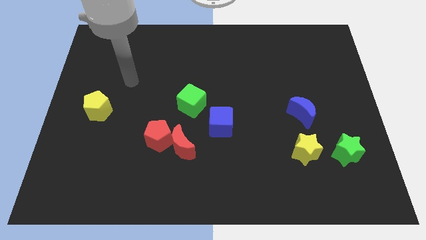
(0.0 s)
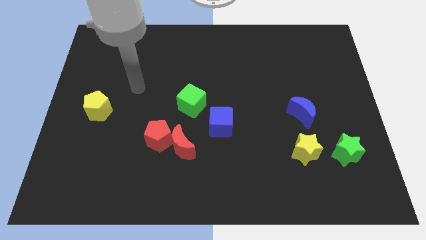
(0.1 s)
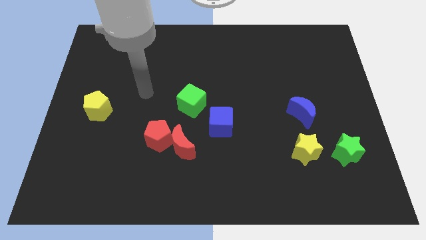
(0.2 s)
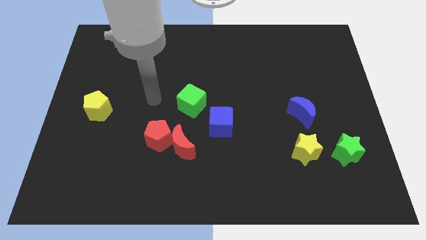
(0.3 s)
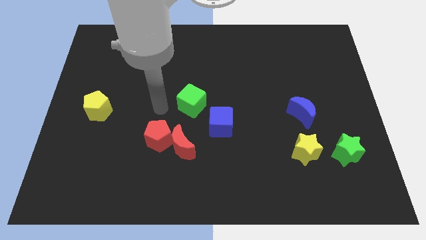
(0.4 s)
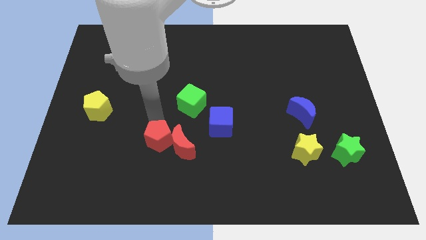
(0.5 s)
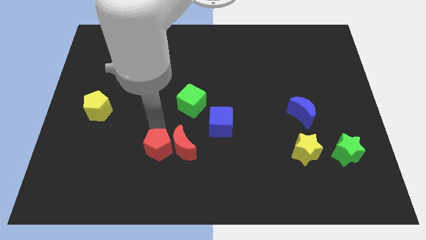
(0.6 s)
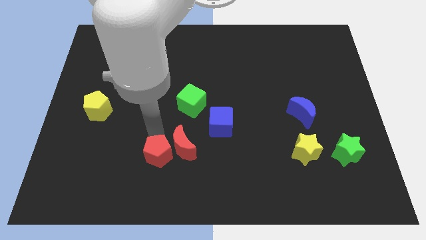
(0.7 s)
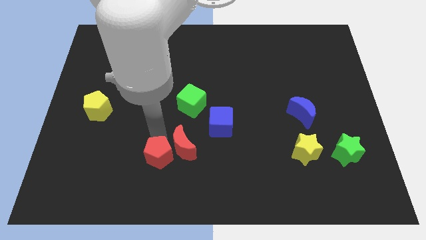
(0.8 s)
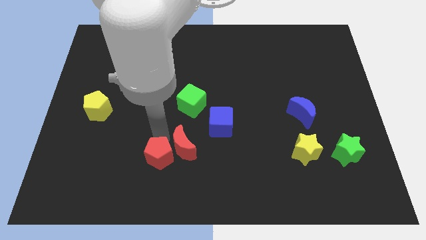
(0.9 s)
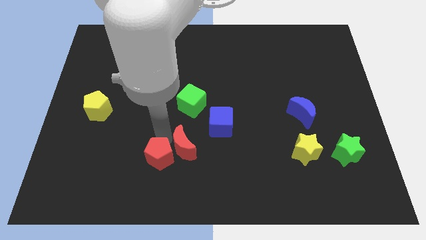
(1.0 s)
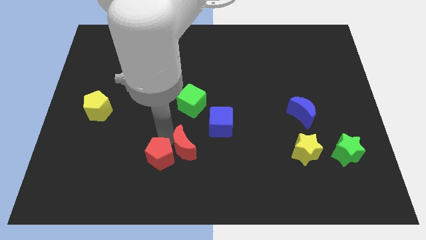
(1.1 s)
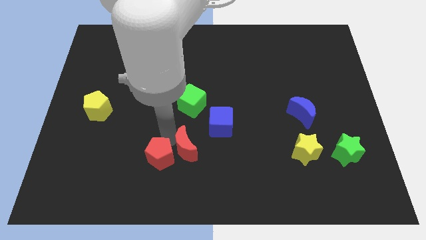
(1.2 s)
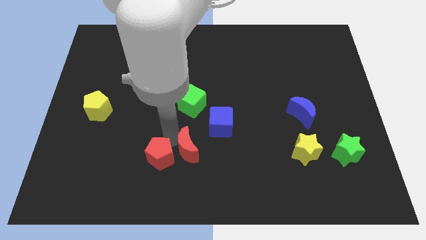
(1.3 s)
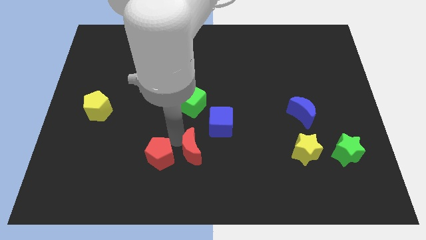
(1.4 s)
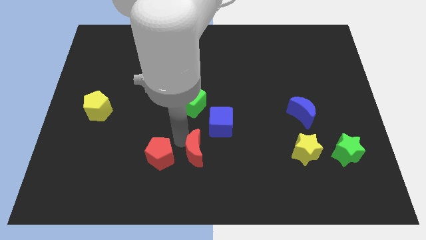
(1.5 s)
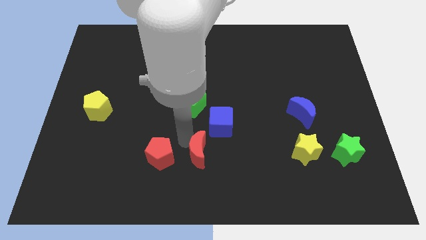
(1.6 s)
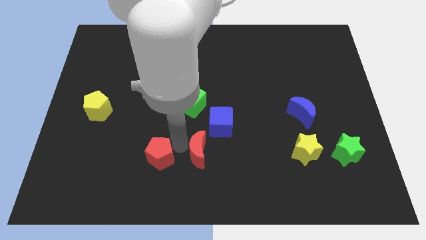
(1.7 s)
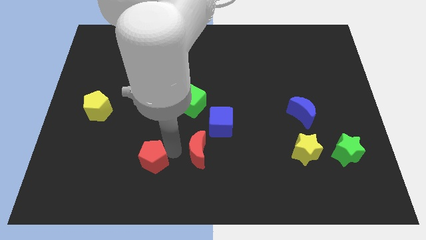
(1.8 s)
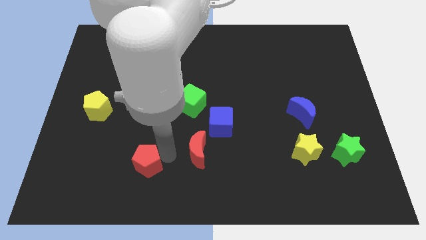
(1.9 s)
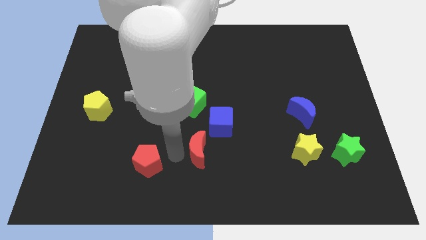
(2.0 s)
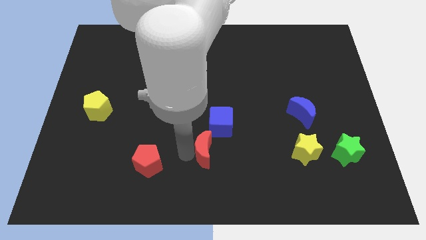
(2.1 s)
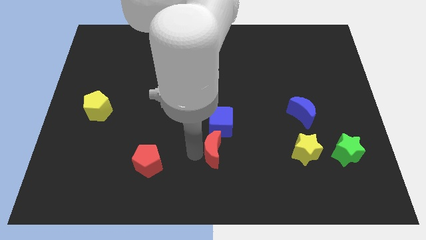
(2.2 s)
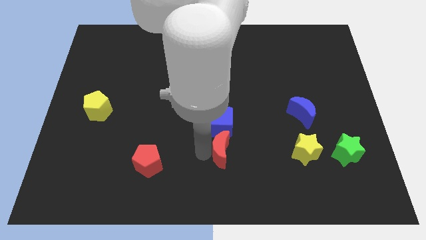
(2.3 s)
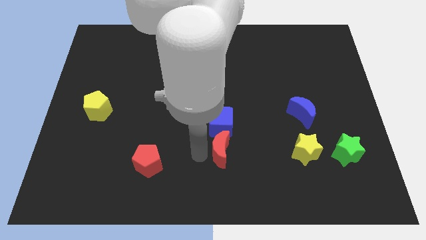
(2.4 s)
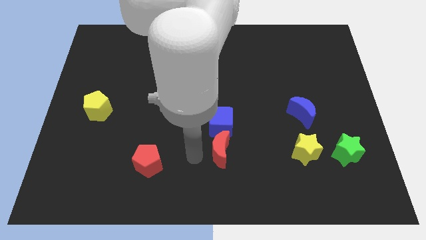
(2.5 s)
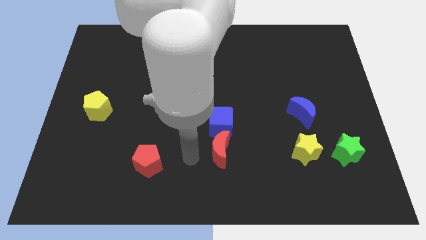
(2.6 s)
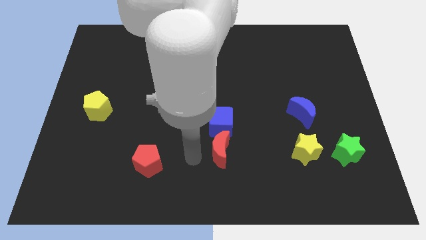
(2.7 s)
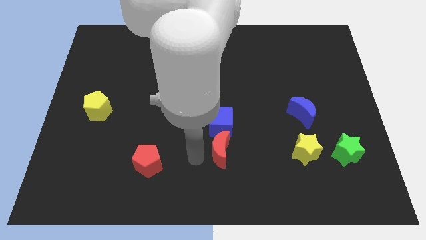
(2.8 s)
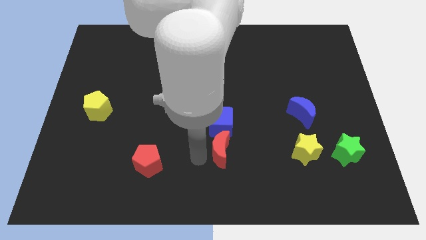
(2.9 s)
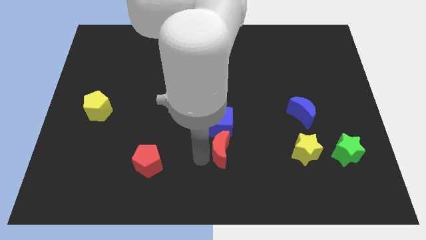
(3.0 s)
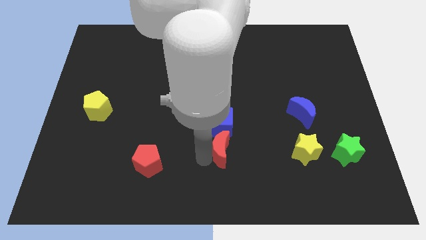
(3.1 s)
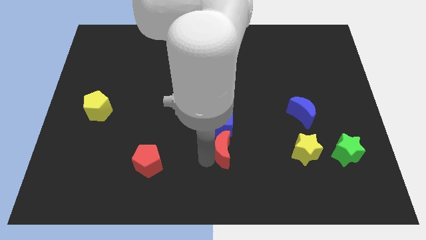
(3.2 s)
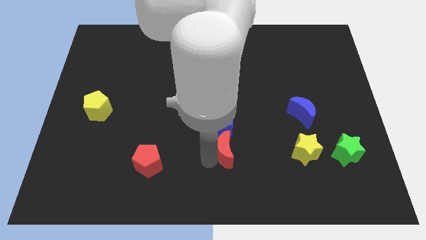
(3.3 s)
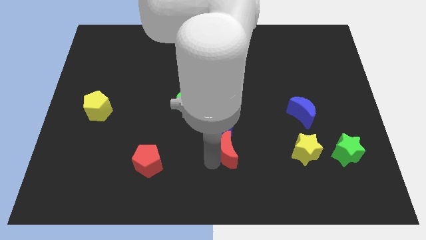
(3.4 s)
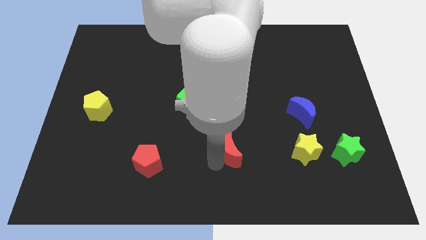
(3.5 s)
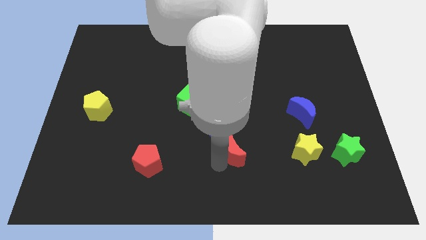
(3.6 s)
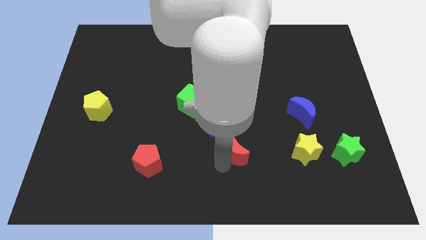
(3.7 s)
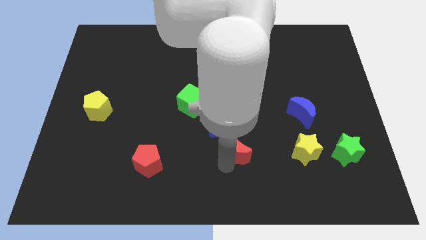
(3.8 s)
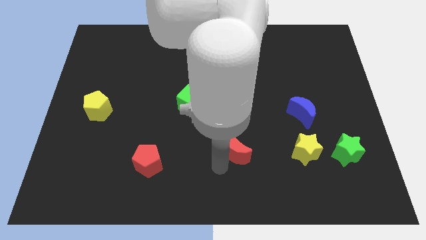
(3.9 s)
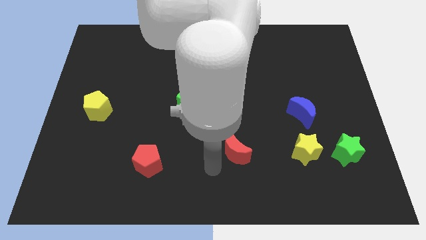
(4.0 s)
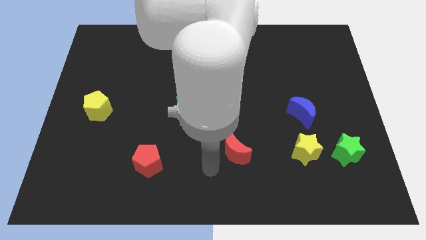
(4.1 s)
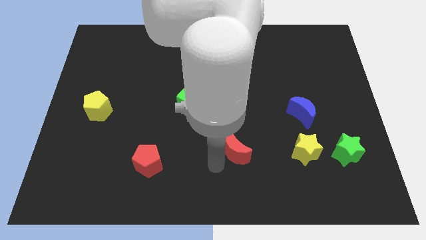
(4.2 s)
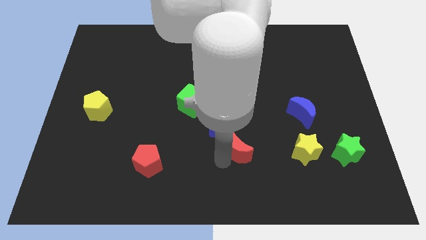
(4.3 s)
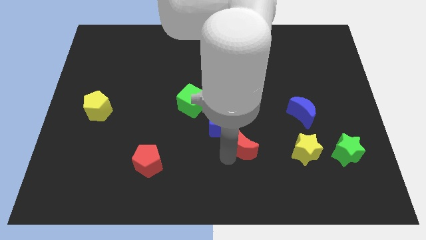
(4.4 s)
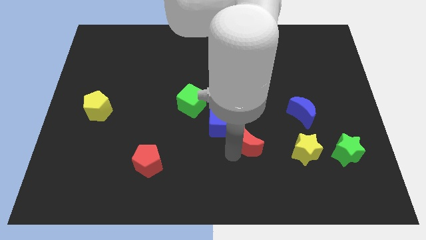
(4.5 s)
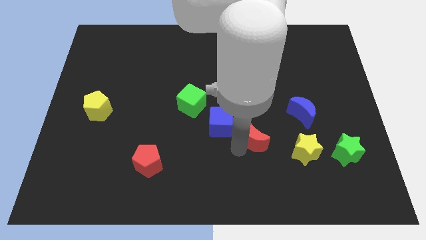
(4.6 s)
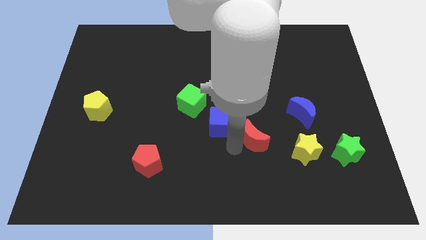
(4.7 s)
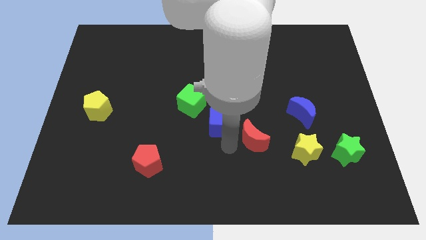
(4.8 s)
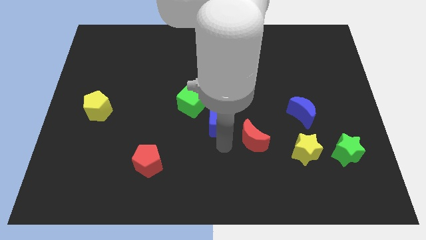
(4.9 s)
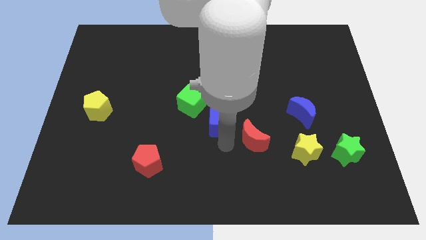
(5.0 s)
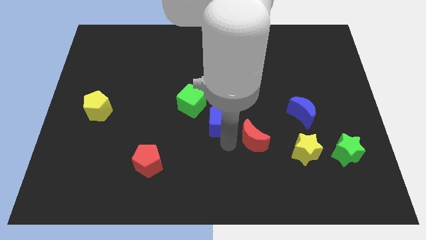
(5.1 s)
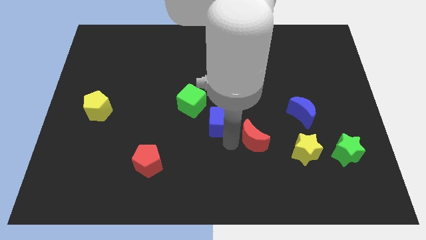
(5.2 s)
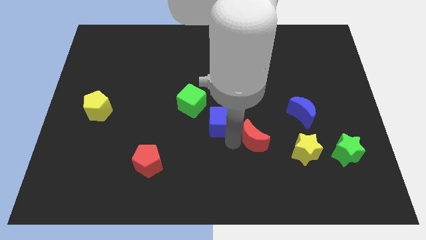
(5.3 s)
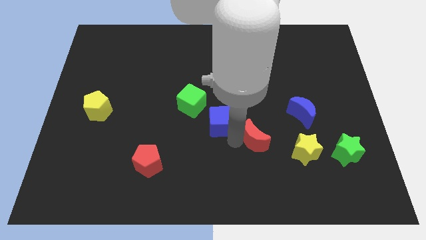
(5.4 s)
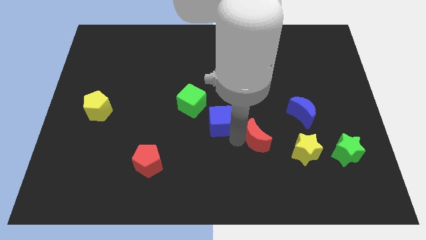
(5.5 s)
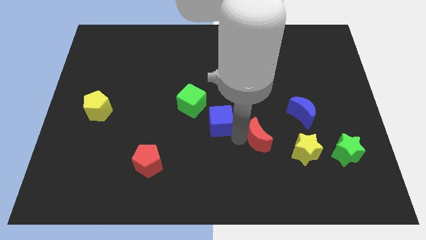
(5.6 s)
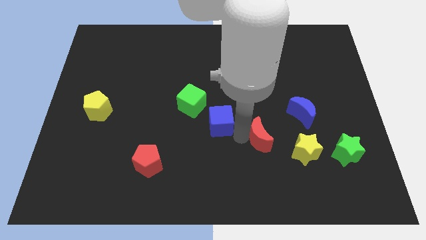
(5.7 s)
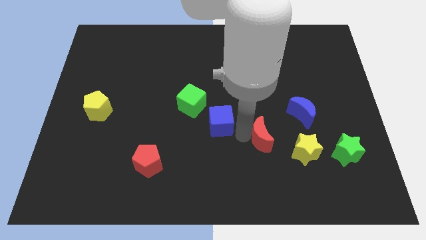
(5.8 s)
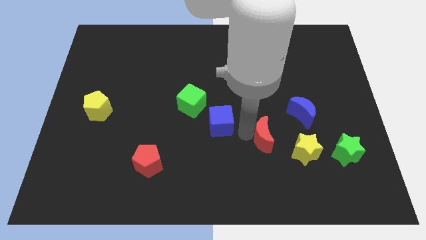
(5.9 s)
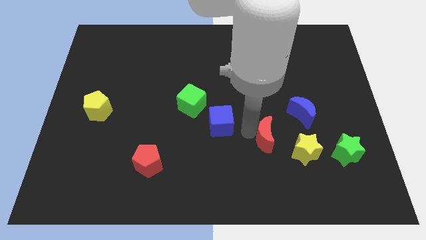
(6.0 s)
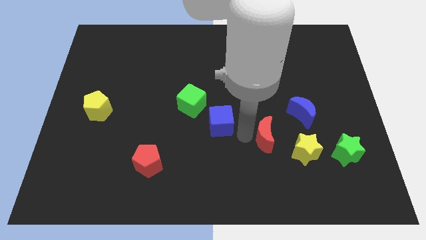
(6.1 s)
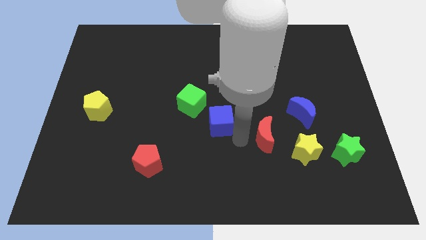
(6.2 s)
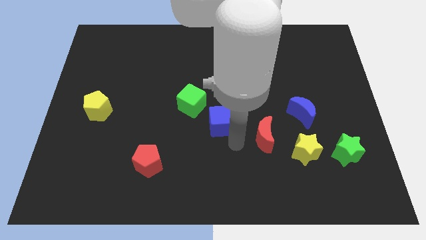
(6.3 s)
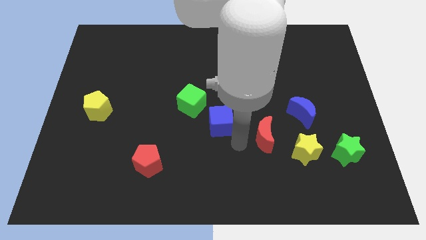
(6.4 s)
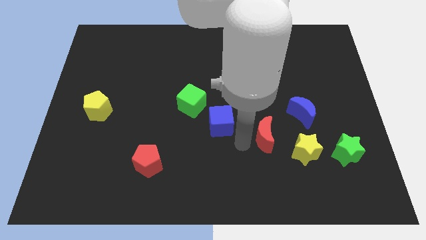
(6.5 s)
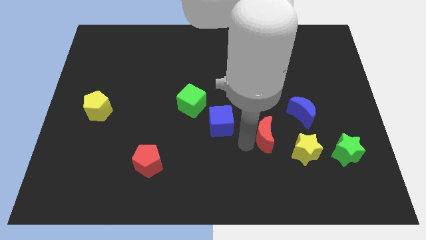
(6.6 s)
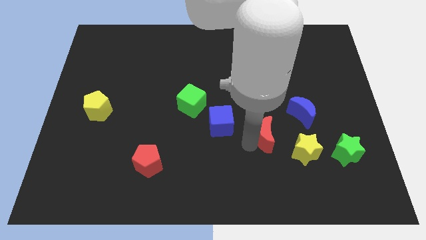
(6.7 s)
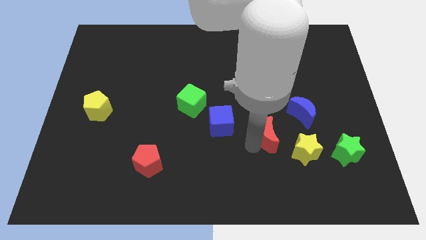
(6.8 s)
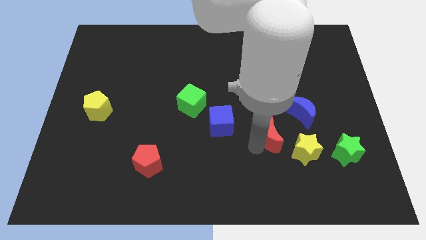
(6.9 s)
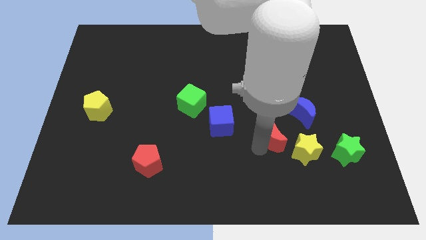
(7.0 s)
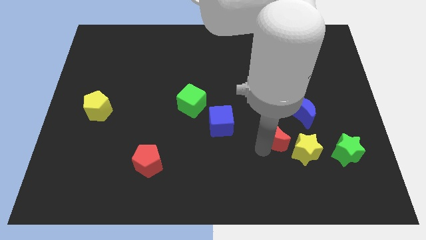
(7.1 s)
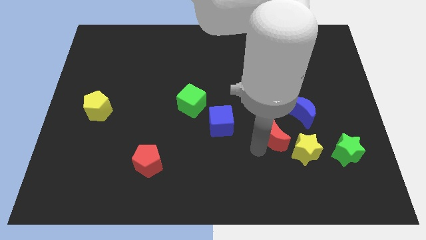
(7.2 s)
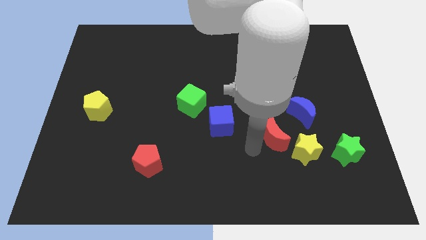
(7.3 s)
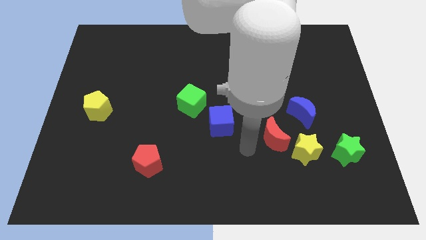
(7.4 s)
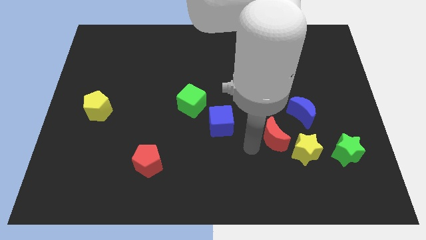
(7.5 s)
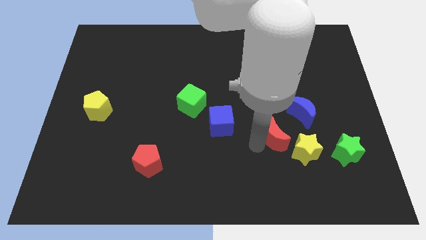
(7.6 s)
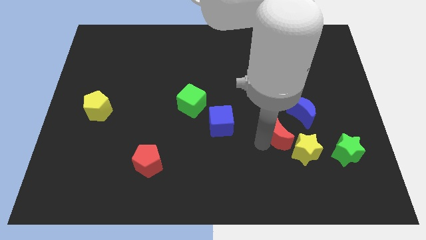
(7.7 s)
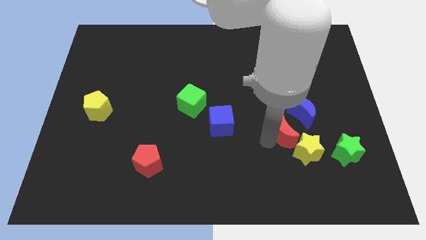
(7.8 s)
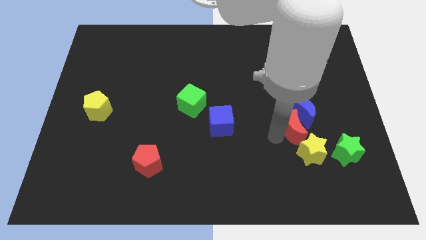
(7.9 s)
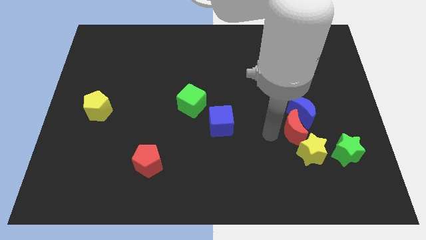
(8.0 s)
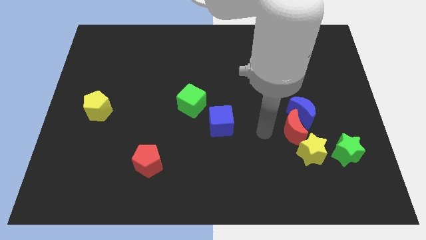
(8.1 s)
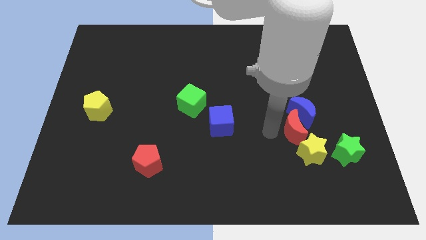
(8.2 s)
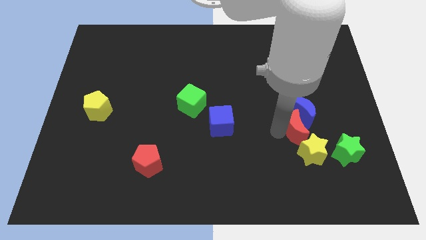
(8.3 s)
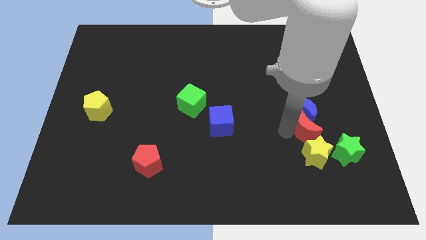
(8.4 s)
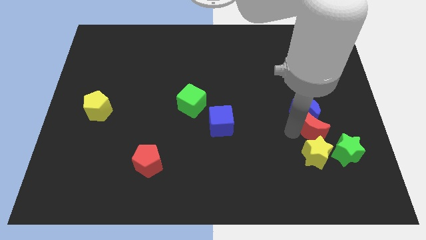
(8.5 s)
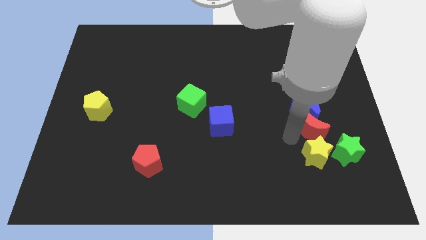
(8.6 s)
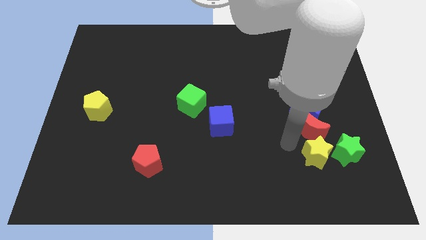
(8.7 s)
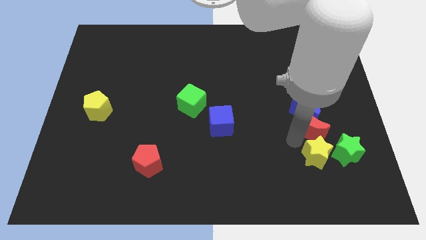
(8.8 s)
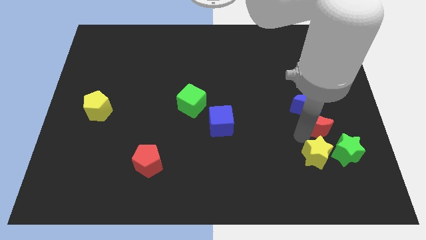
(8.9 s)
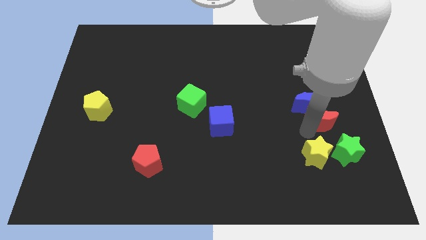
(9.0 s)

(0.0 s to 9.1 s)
put the red moon to the top of the green star
